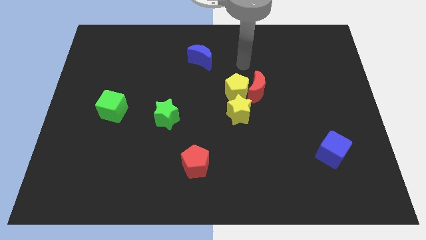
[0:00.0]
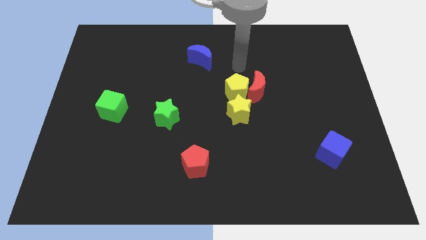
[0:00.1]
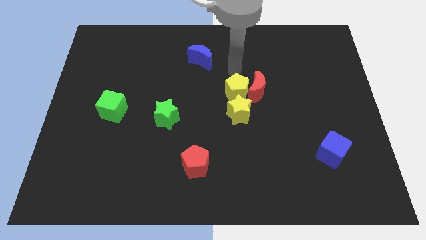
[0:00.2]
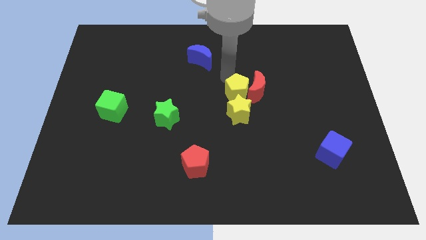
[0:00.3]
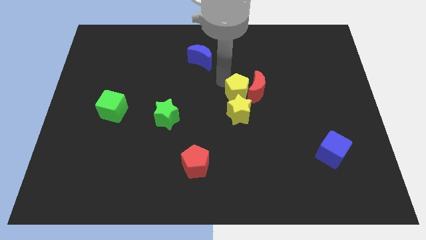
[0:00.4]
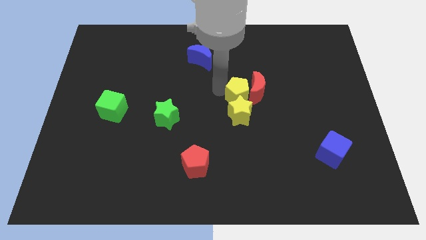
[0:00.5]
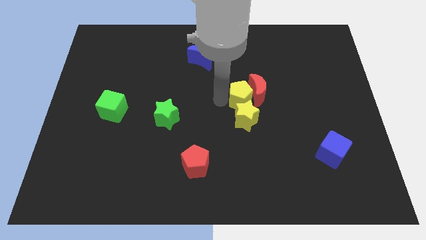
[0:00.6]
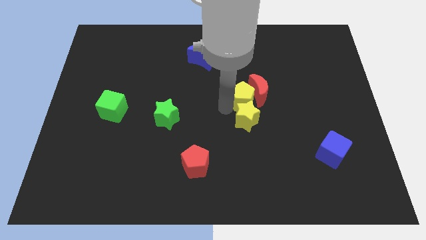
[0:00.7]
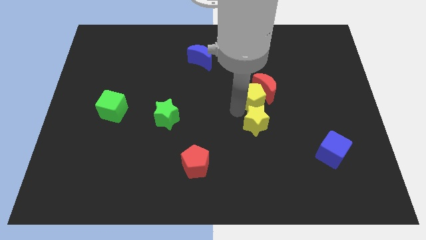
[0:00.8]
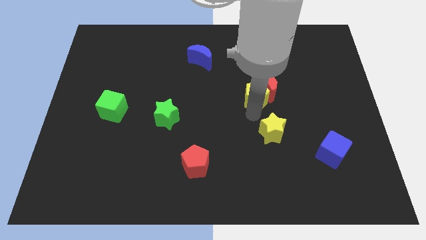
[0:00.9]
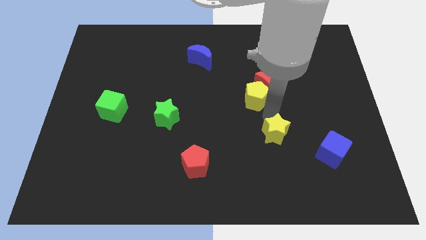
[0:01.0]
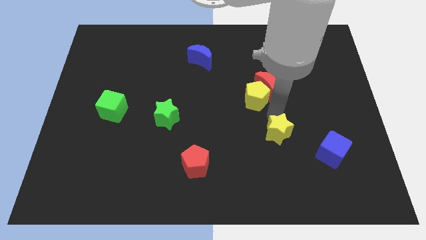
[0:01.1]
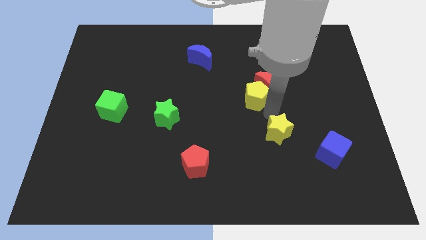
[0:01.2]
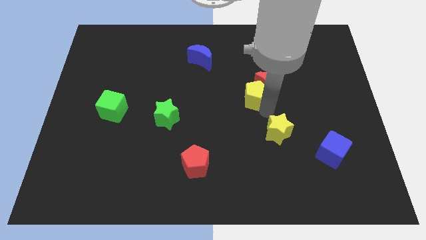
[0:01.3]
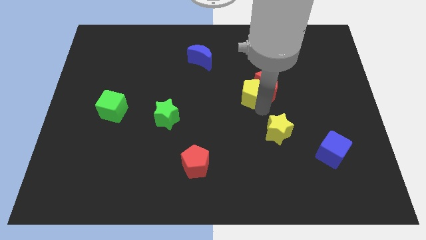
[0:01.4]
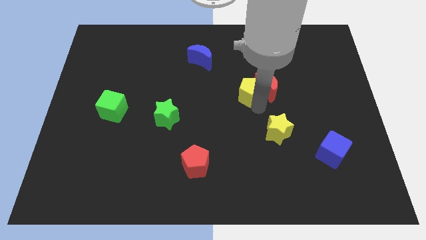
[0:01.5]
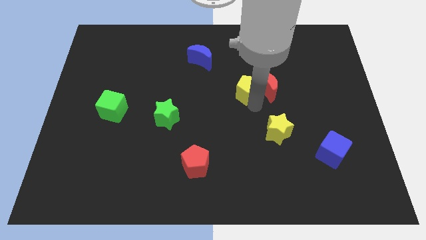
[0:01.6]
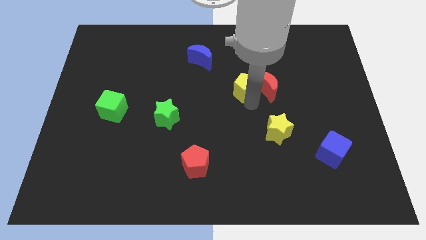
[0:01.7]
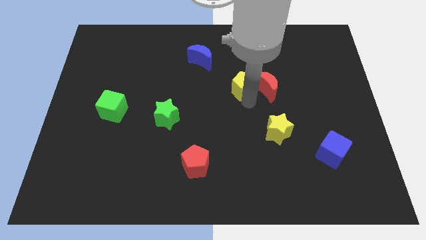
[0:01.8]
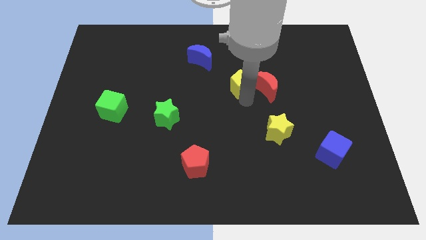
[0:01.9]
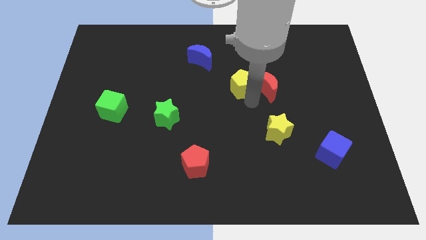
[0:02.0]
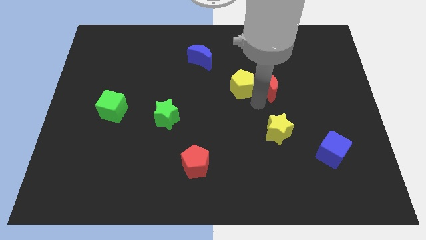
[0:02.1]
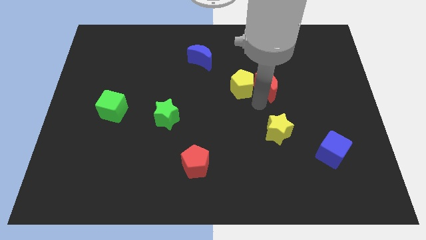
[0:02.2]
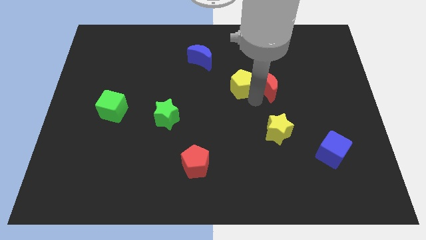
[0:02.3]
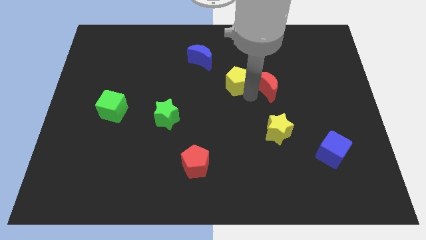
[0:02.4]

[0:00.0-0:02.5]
move the yellow pentagon away from the red moon and yellow star

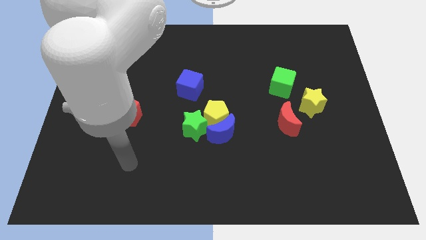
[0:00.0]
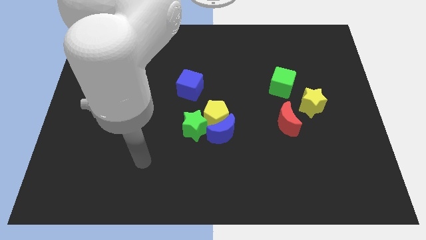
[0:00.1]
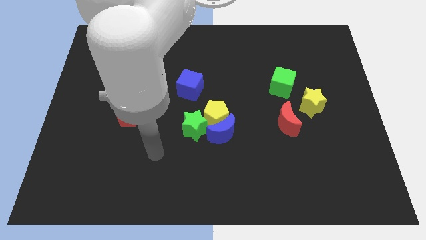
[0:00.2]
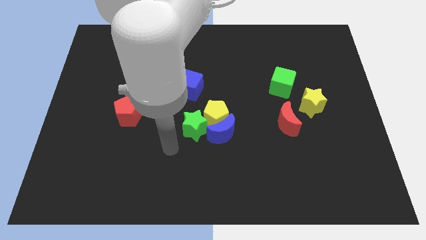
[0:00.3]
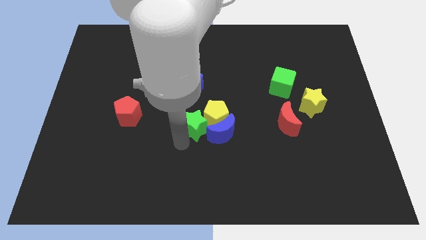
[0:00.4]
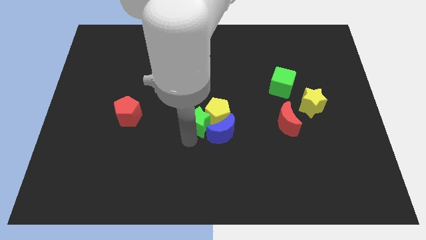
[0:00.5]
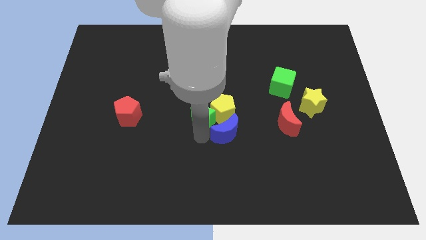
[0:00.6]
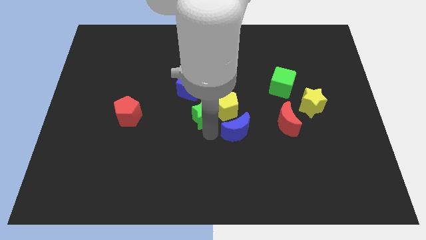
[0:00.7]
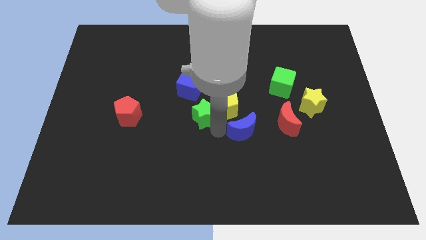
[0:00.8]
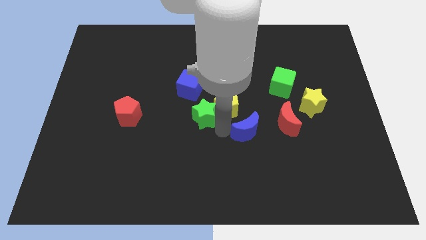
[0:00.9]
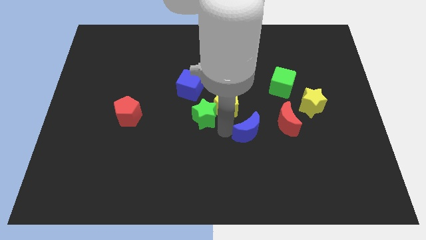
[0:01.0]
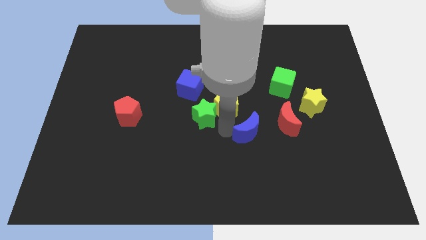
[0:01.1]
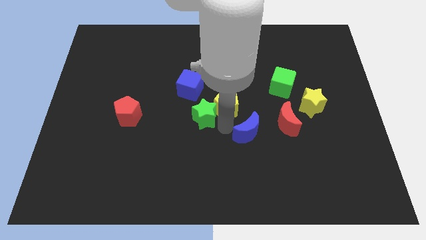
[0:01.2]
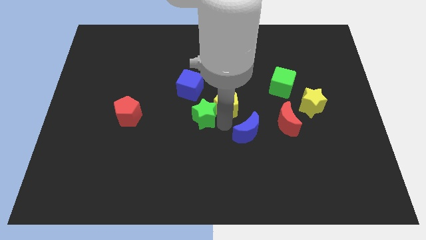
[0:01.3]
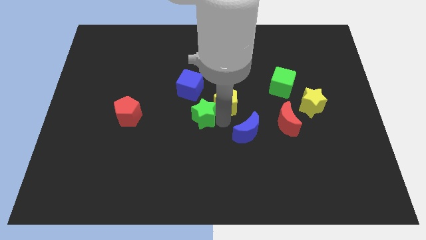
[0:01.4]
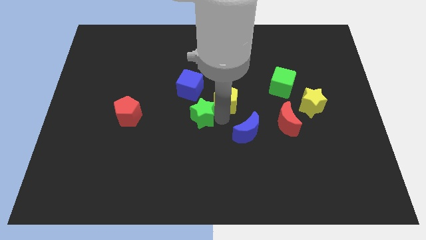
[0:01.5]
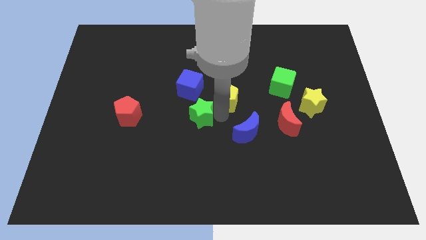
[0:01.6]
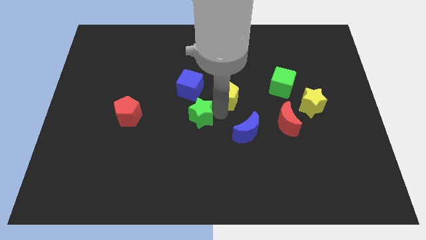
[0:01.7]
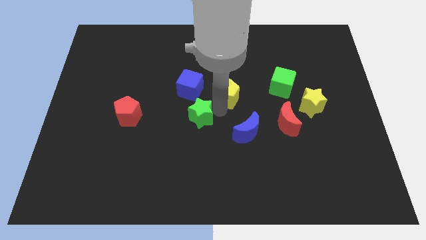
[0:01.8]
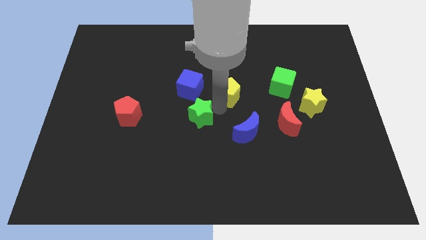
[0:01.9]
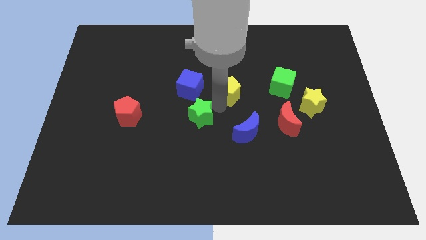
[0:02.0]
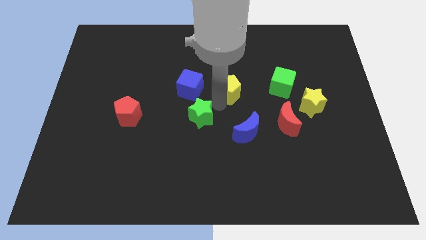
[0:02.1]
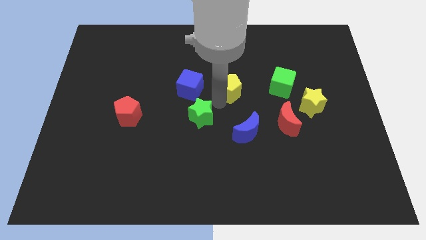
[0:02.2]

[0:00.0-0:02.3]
separate the yellow pentagon from the blue moon and green star

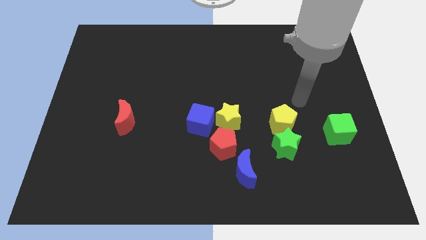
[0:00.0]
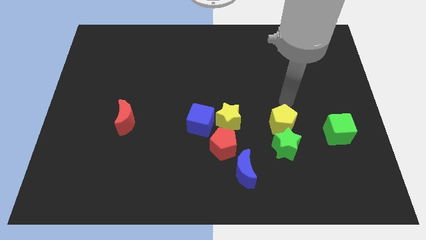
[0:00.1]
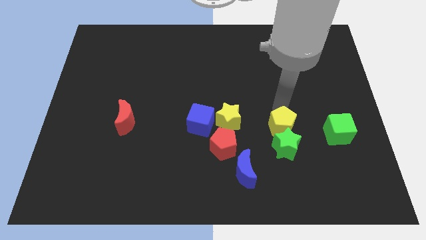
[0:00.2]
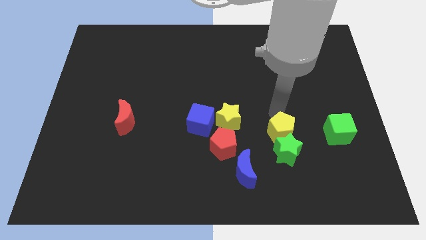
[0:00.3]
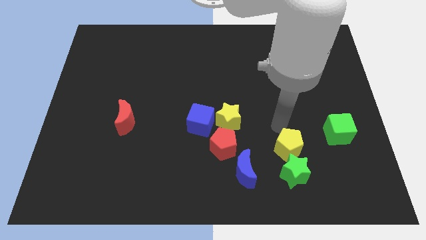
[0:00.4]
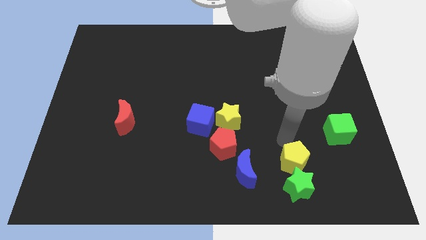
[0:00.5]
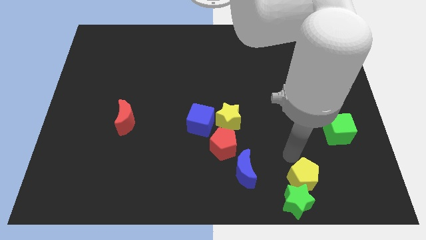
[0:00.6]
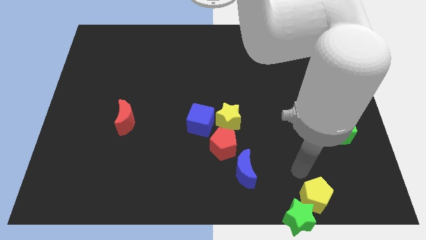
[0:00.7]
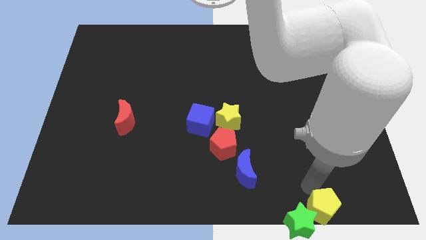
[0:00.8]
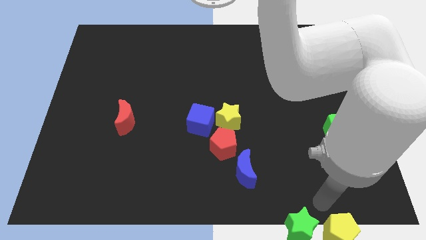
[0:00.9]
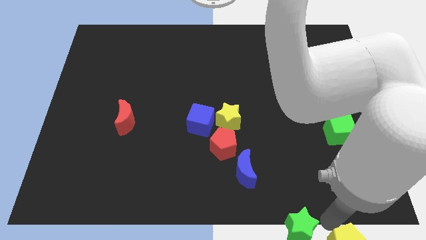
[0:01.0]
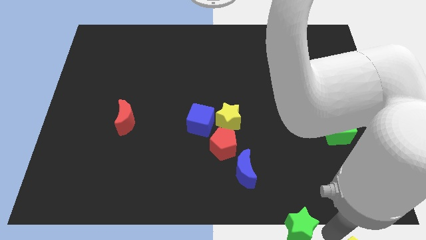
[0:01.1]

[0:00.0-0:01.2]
pull the green star apart from the yellow pentagon

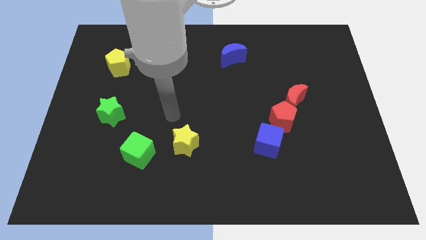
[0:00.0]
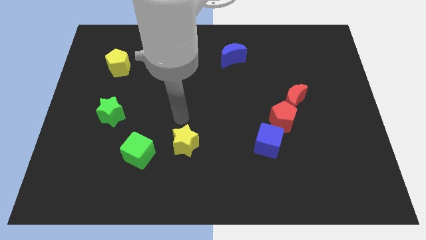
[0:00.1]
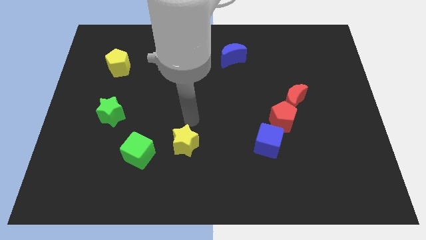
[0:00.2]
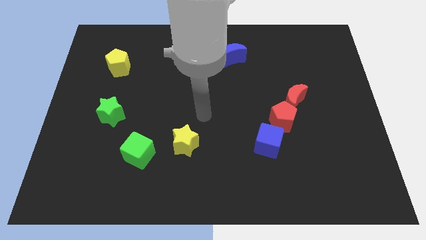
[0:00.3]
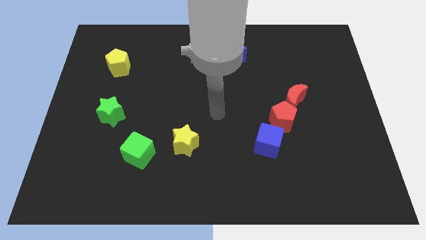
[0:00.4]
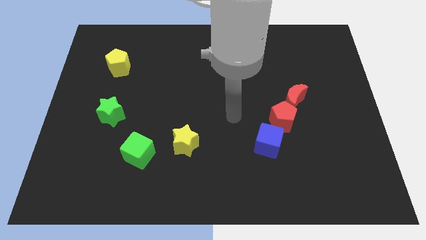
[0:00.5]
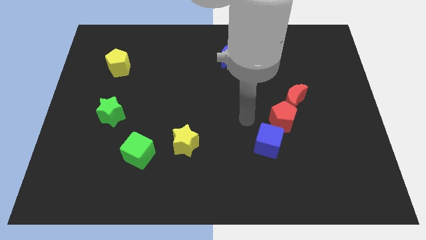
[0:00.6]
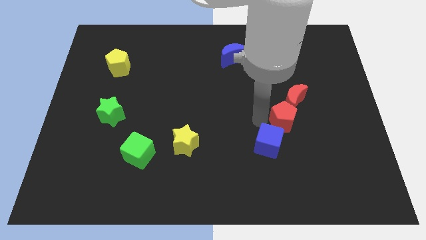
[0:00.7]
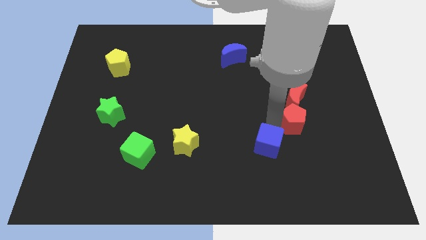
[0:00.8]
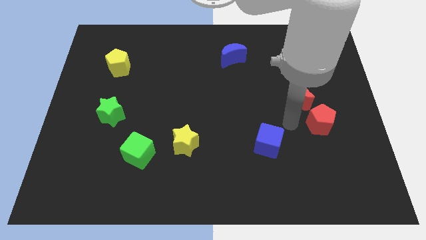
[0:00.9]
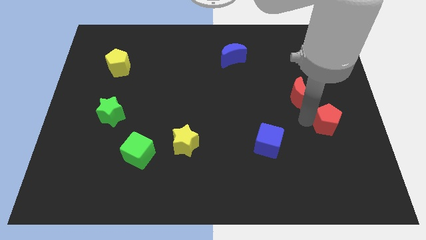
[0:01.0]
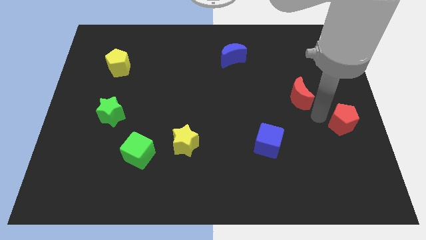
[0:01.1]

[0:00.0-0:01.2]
move the red moon away from the red pentagon

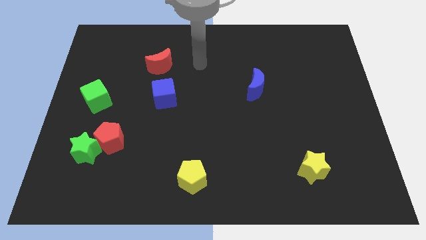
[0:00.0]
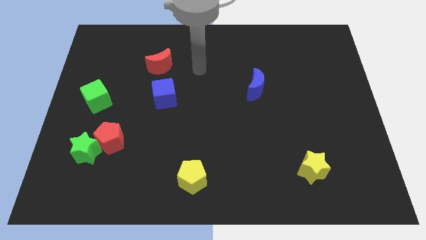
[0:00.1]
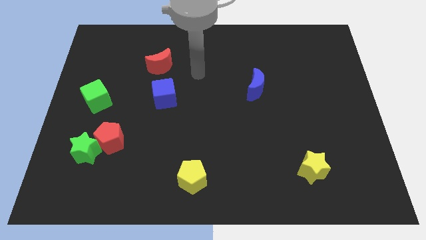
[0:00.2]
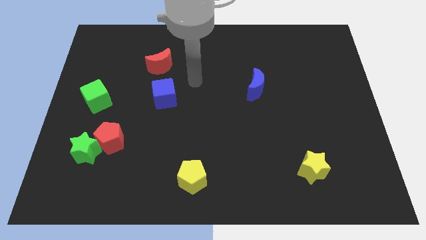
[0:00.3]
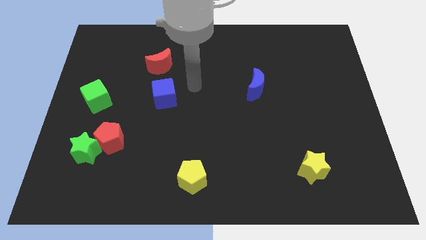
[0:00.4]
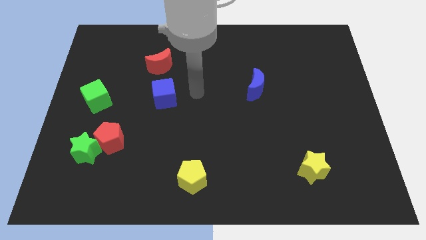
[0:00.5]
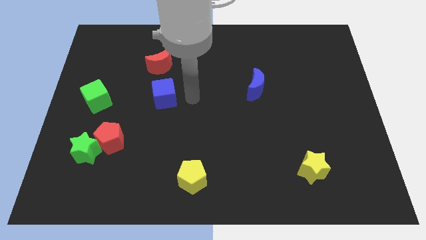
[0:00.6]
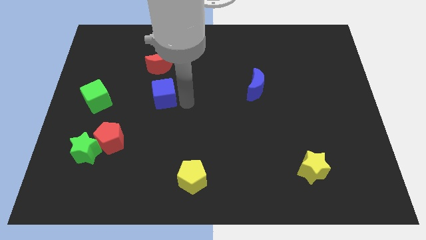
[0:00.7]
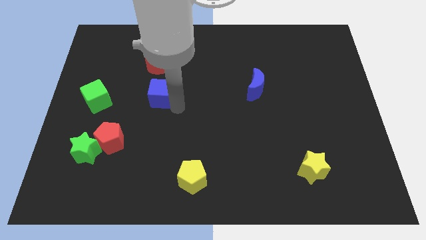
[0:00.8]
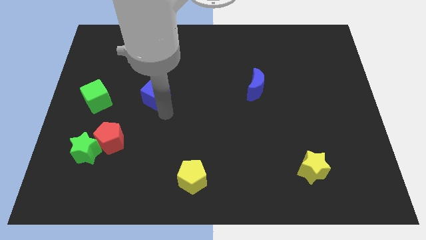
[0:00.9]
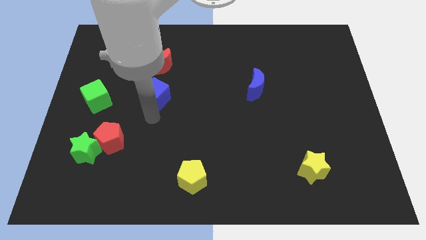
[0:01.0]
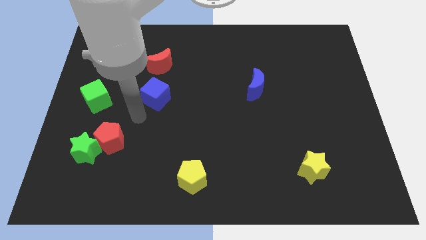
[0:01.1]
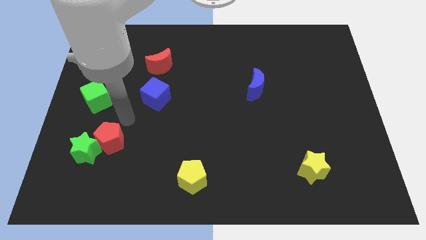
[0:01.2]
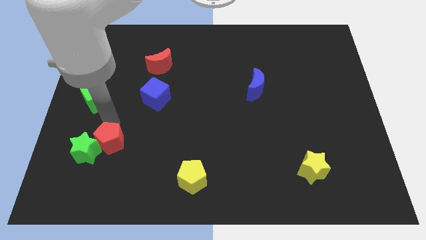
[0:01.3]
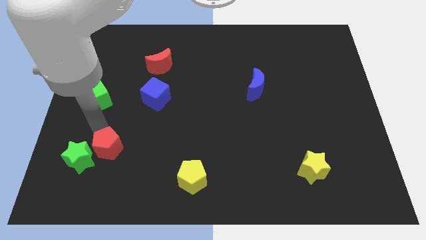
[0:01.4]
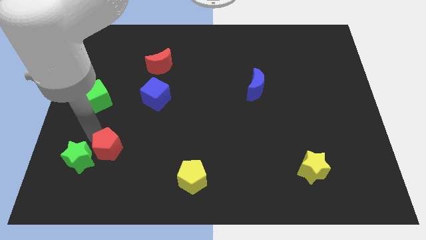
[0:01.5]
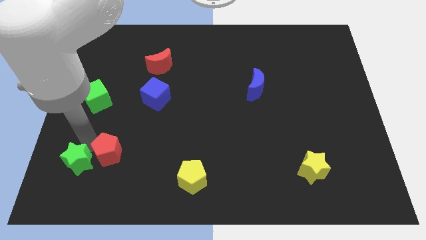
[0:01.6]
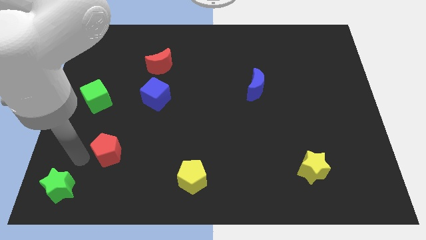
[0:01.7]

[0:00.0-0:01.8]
pull the red pentagon apart from the green star

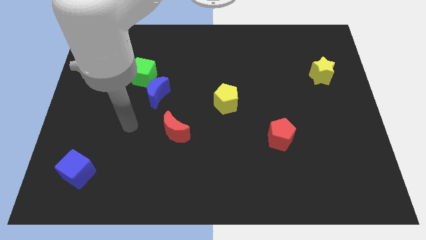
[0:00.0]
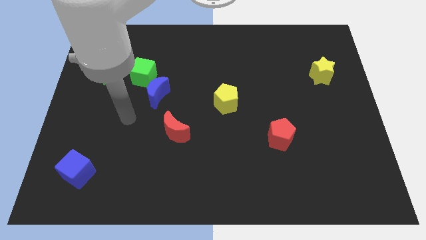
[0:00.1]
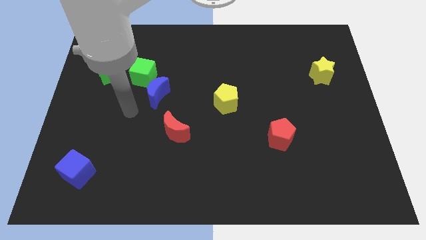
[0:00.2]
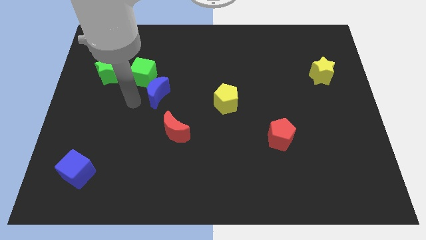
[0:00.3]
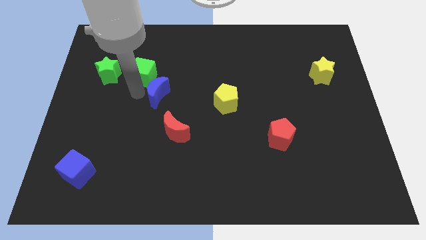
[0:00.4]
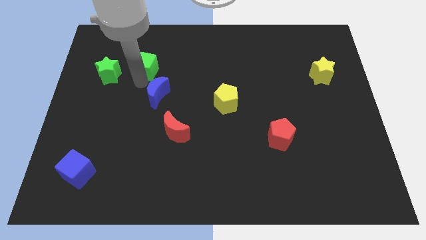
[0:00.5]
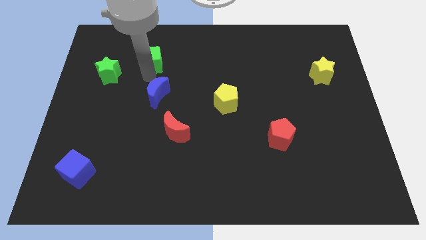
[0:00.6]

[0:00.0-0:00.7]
separate the blue moon from the green cube
